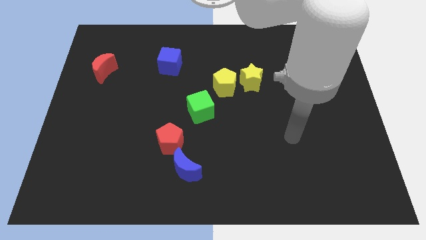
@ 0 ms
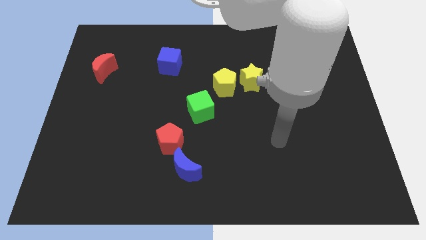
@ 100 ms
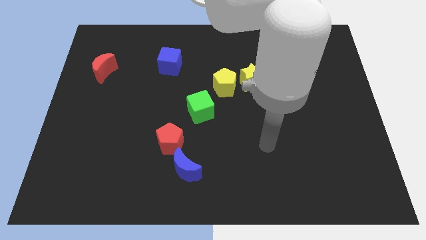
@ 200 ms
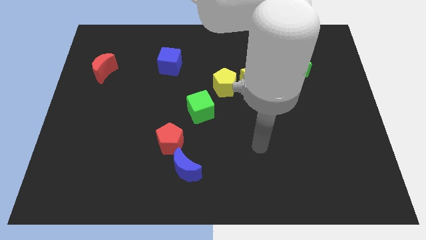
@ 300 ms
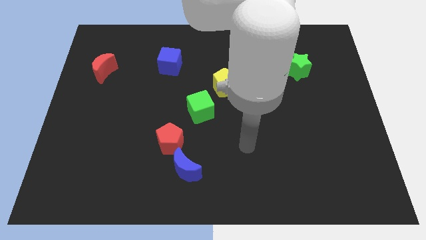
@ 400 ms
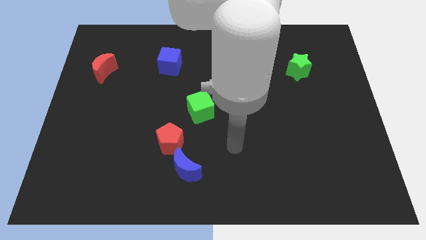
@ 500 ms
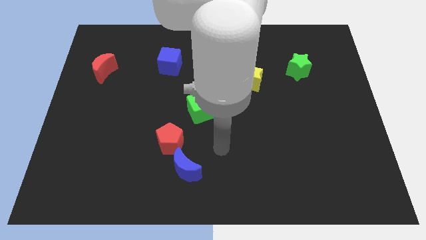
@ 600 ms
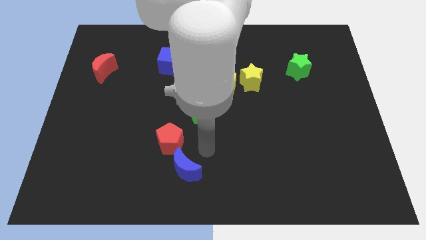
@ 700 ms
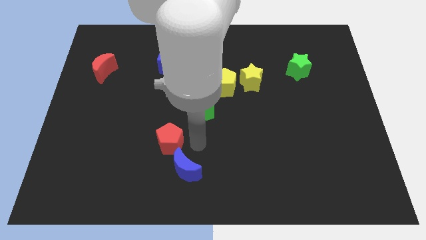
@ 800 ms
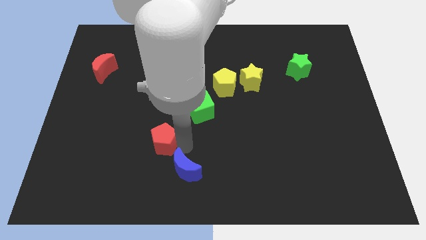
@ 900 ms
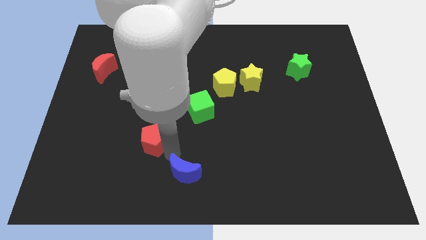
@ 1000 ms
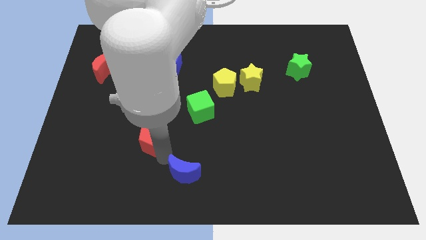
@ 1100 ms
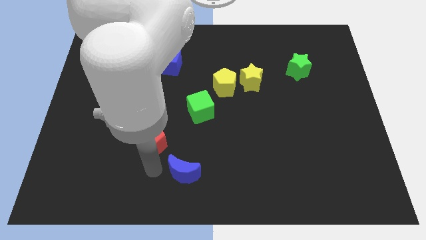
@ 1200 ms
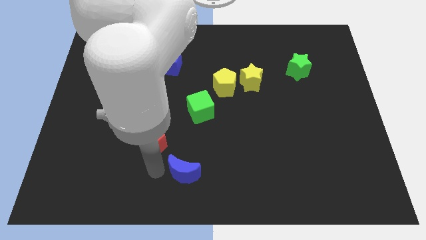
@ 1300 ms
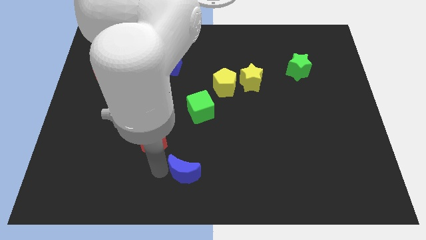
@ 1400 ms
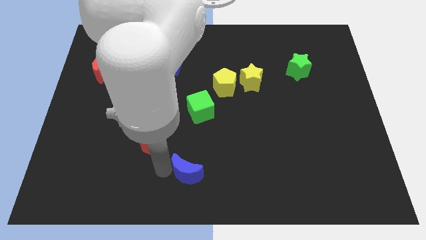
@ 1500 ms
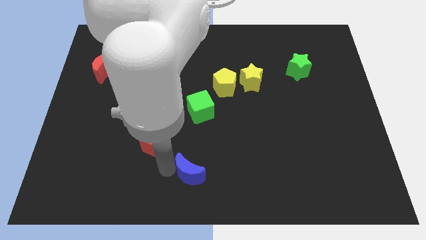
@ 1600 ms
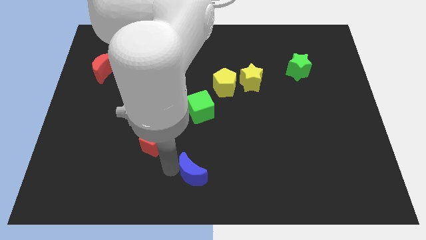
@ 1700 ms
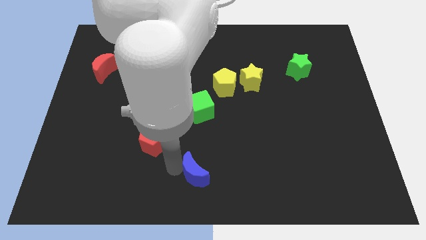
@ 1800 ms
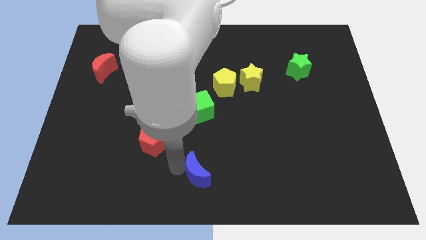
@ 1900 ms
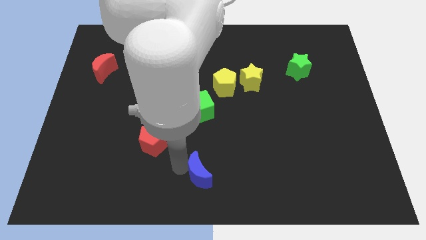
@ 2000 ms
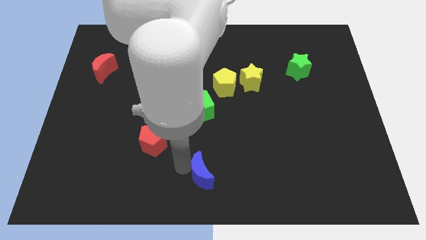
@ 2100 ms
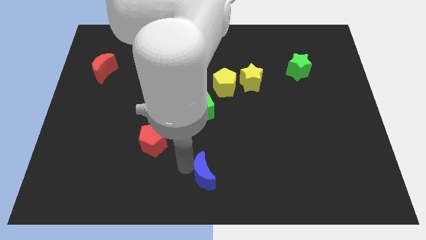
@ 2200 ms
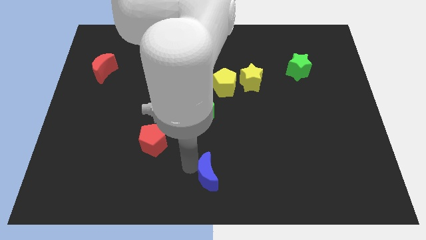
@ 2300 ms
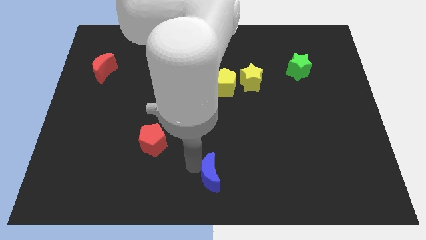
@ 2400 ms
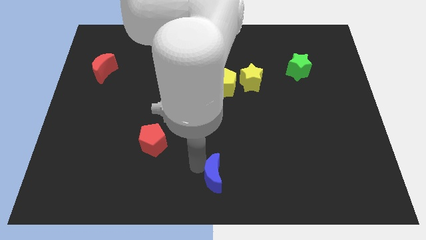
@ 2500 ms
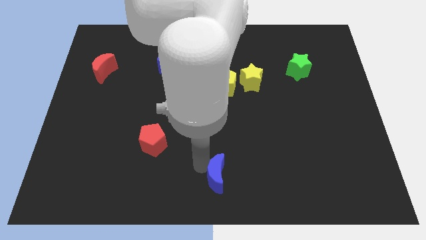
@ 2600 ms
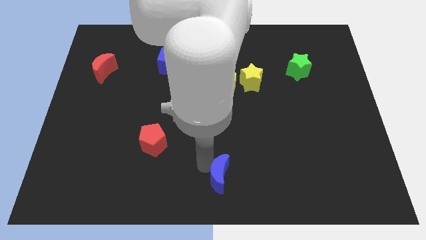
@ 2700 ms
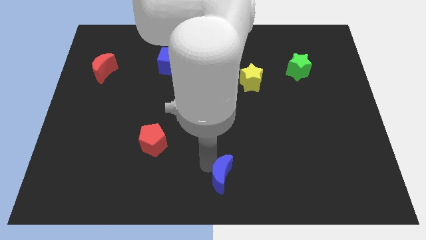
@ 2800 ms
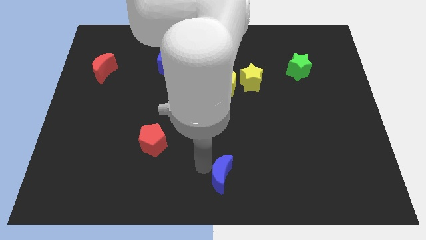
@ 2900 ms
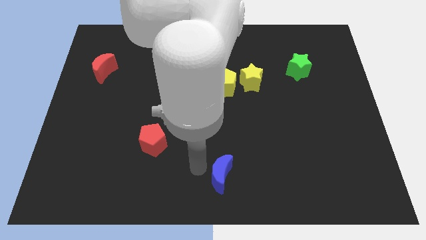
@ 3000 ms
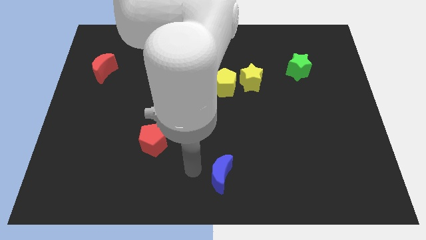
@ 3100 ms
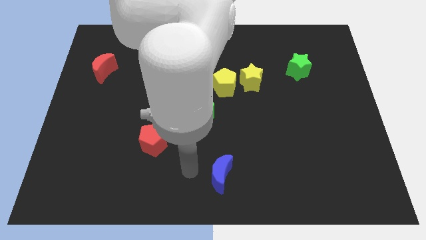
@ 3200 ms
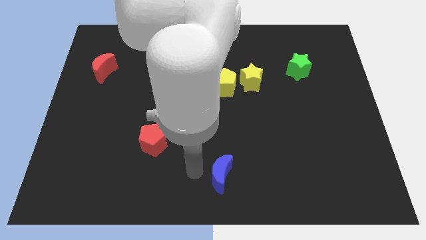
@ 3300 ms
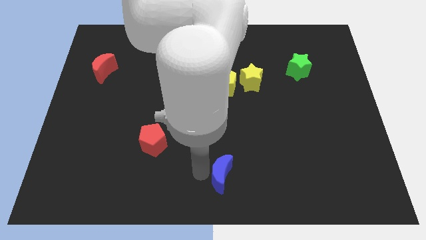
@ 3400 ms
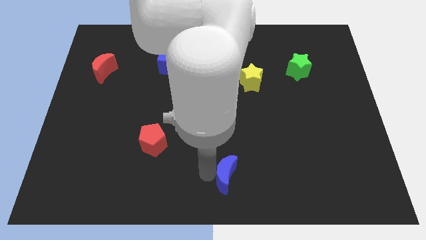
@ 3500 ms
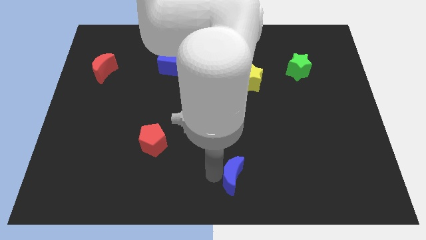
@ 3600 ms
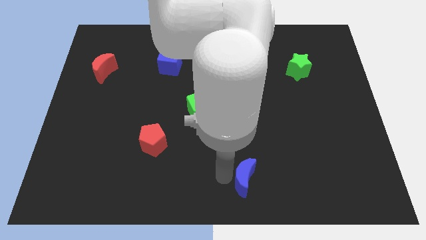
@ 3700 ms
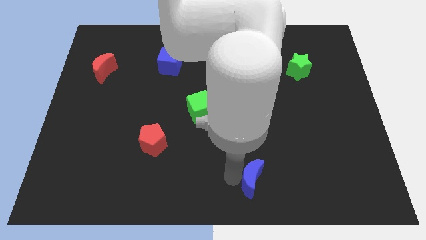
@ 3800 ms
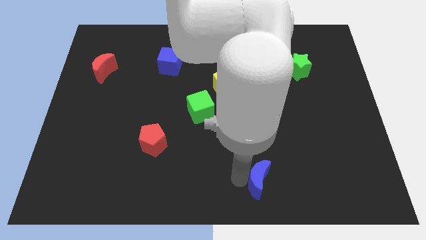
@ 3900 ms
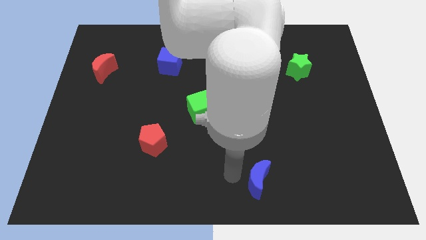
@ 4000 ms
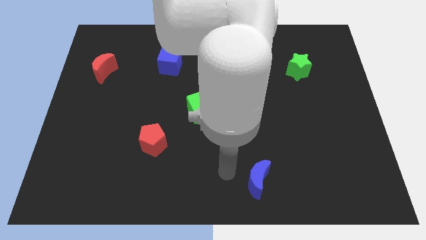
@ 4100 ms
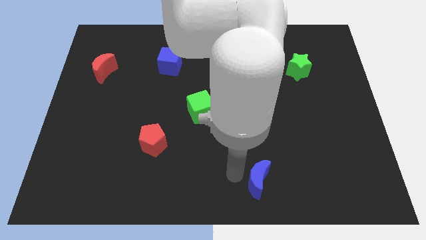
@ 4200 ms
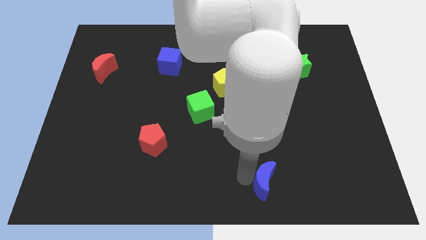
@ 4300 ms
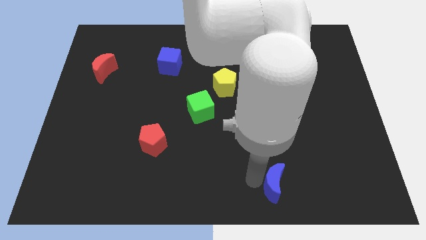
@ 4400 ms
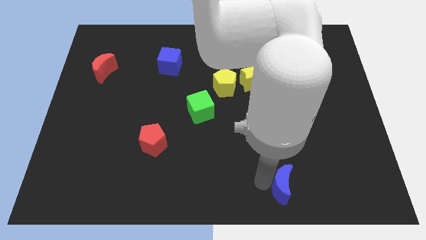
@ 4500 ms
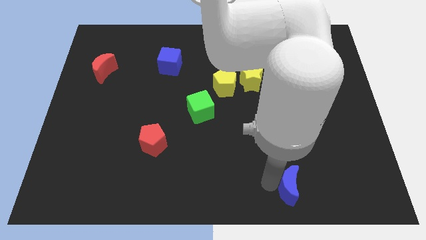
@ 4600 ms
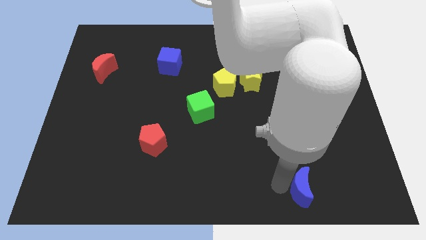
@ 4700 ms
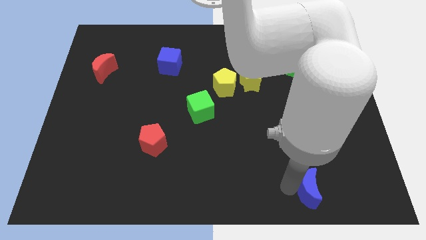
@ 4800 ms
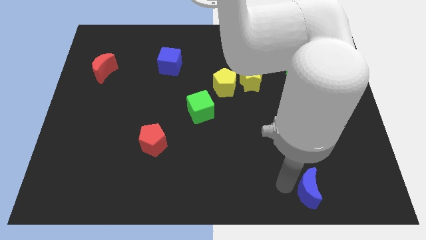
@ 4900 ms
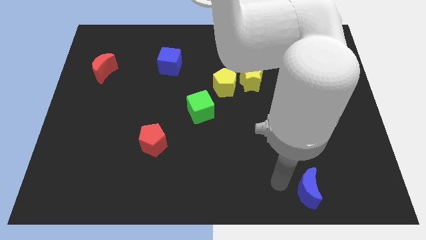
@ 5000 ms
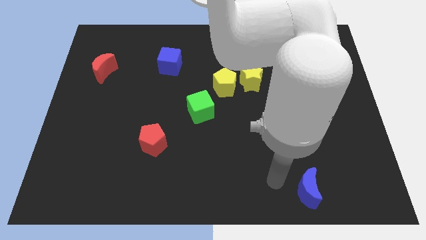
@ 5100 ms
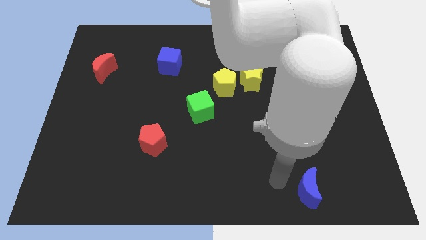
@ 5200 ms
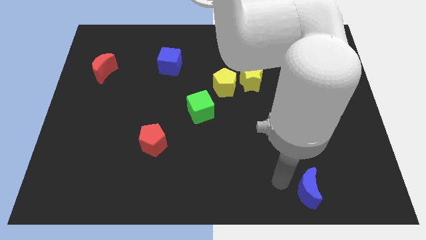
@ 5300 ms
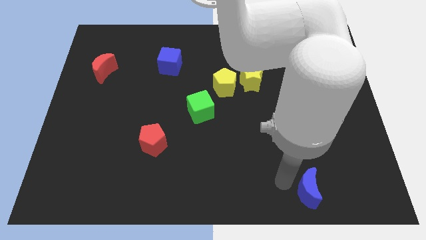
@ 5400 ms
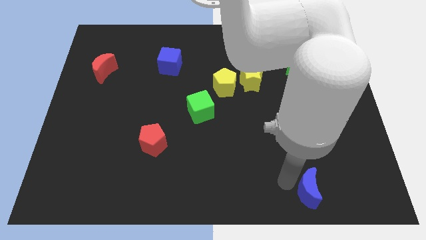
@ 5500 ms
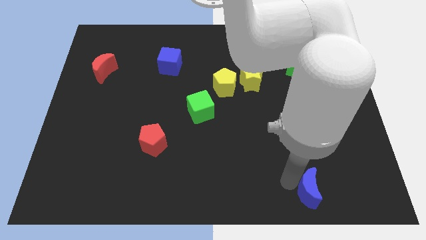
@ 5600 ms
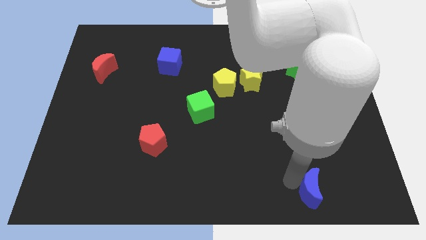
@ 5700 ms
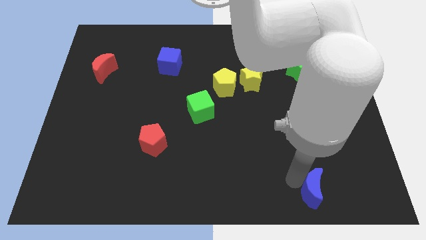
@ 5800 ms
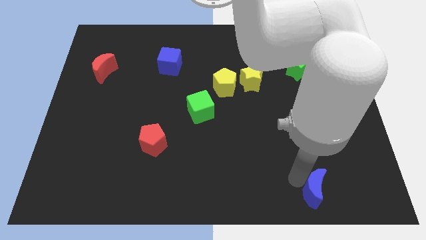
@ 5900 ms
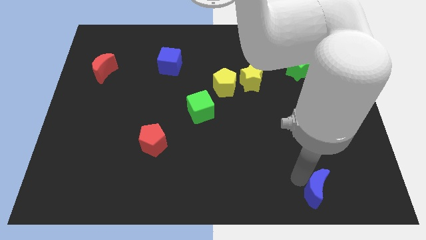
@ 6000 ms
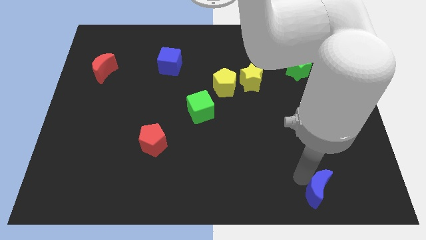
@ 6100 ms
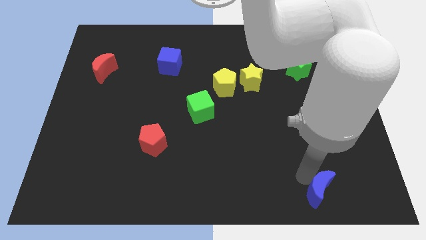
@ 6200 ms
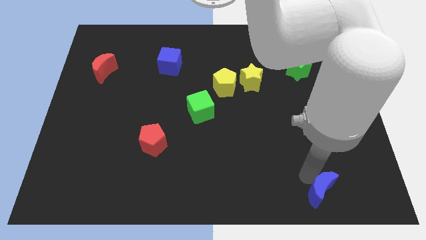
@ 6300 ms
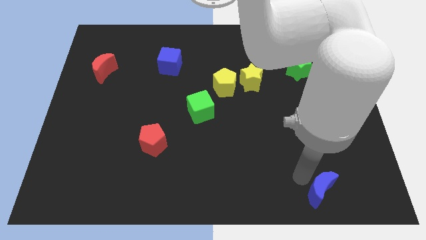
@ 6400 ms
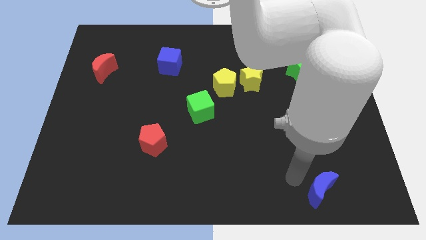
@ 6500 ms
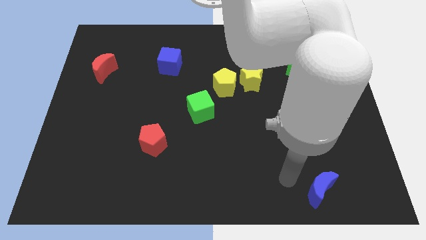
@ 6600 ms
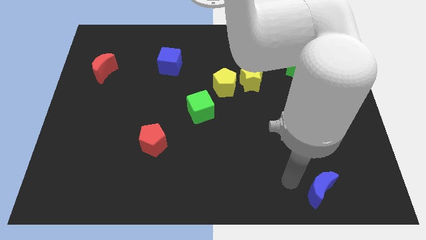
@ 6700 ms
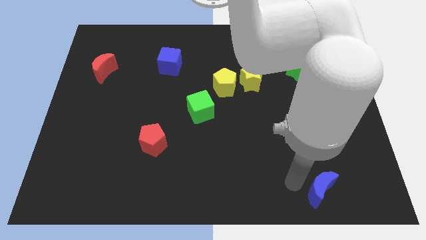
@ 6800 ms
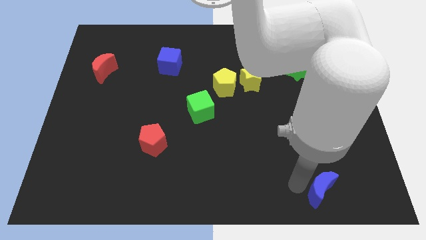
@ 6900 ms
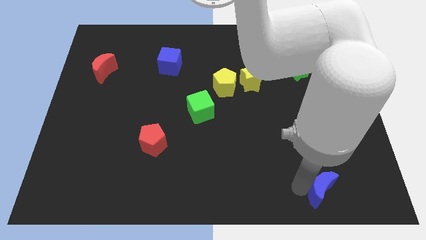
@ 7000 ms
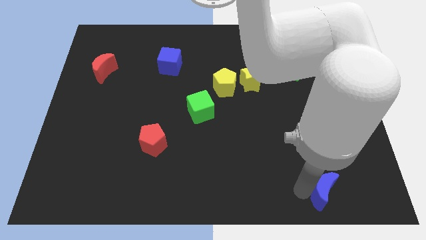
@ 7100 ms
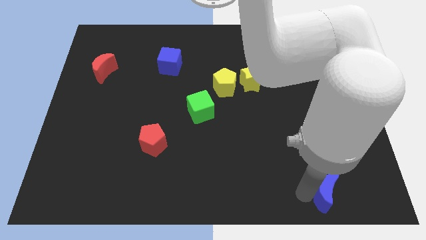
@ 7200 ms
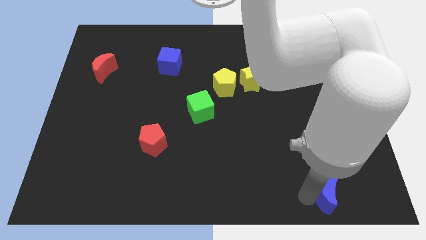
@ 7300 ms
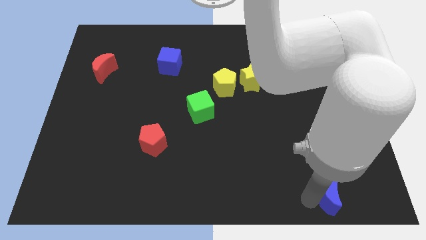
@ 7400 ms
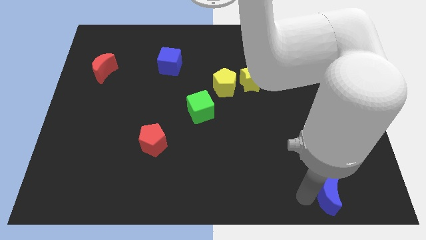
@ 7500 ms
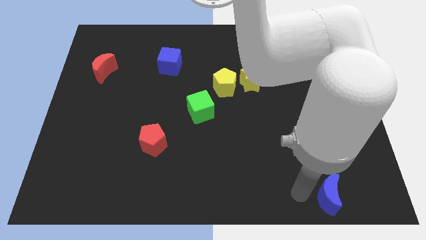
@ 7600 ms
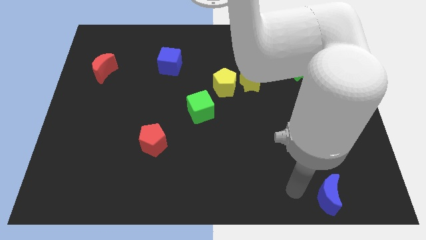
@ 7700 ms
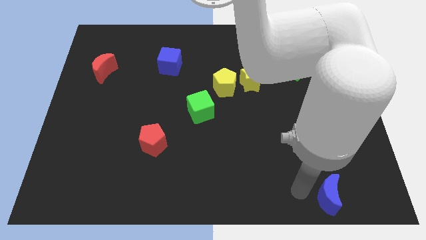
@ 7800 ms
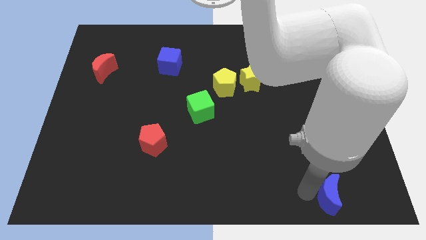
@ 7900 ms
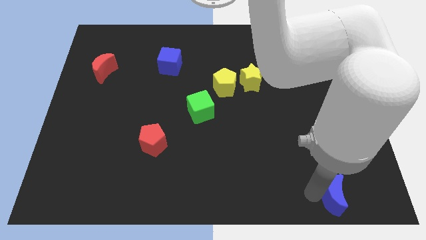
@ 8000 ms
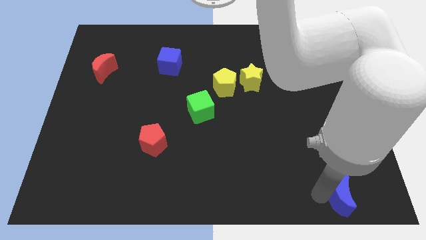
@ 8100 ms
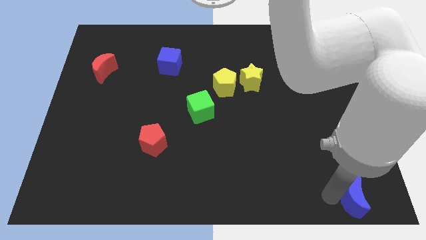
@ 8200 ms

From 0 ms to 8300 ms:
slide the blue moon to the bottom right corner
